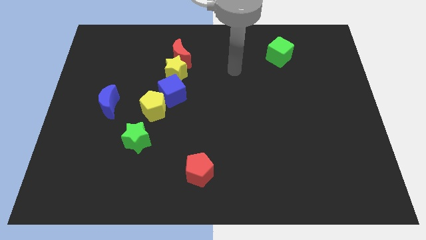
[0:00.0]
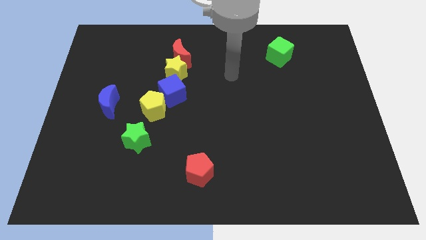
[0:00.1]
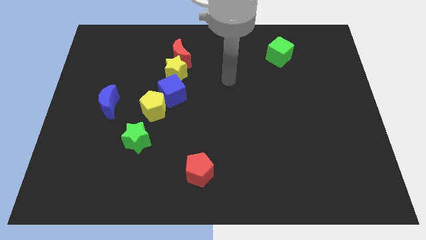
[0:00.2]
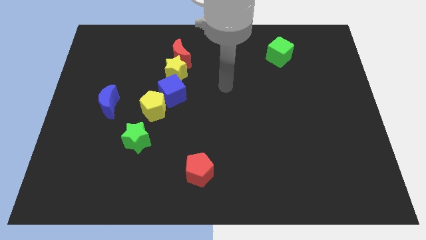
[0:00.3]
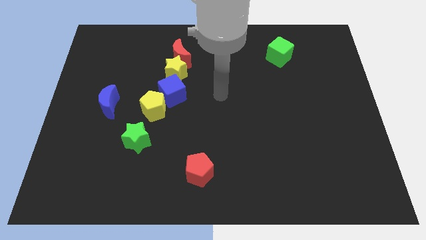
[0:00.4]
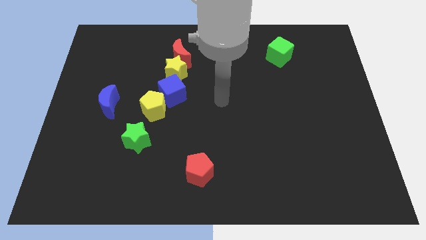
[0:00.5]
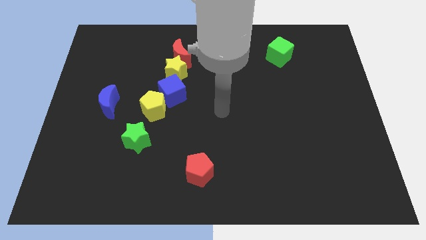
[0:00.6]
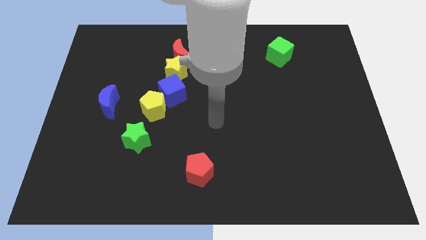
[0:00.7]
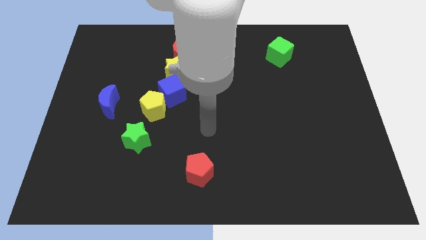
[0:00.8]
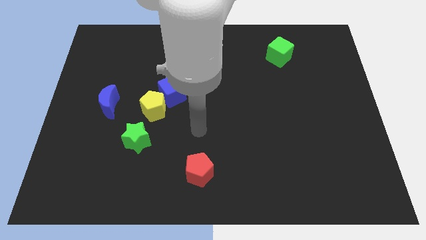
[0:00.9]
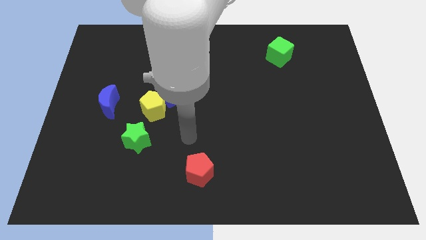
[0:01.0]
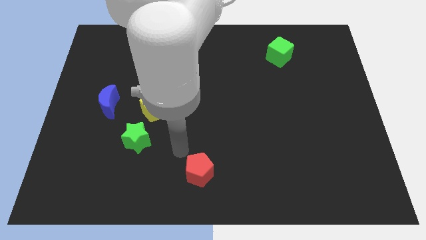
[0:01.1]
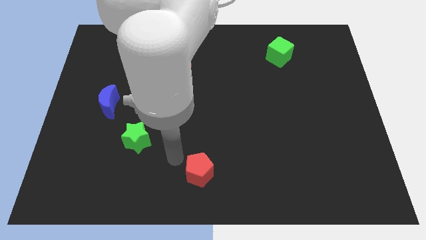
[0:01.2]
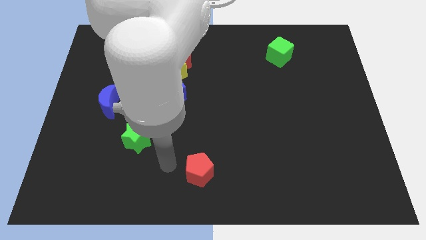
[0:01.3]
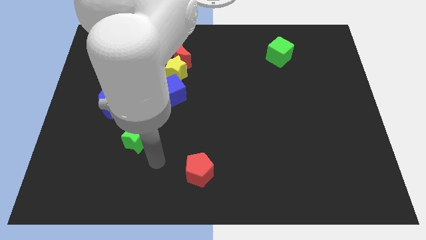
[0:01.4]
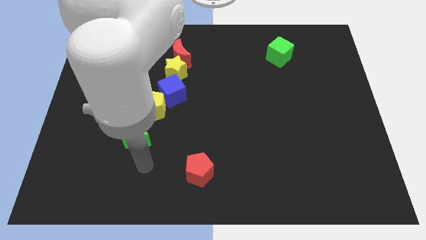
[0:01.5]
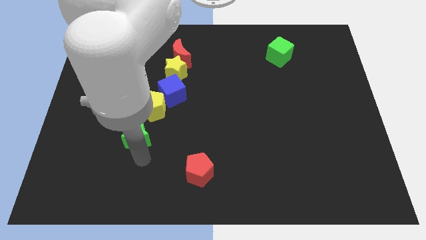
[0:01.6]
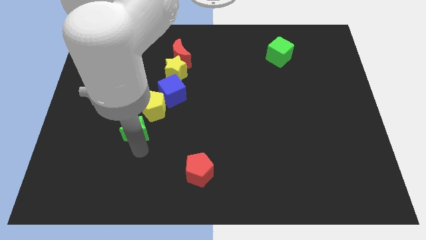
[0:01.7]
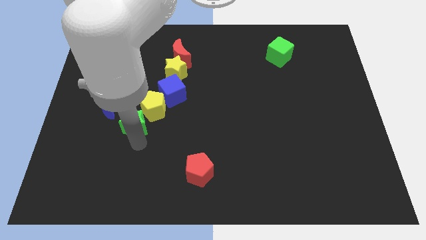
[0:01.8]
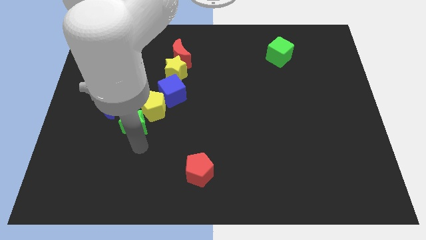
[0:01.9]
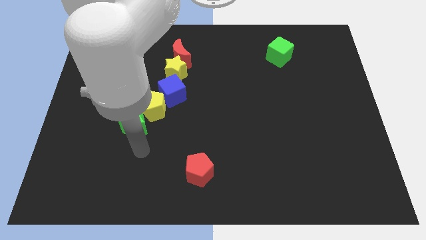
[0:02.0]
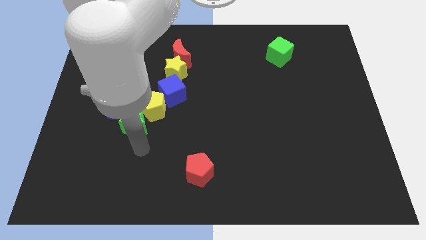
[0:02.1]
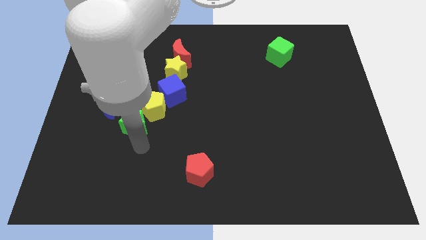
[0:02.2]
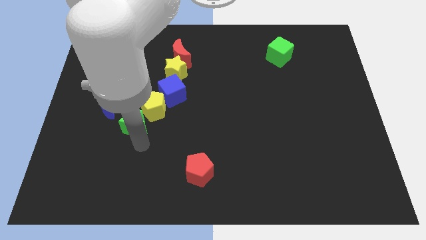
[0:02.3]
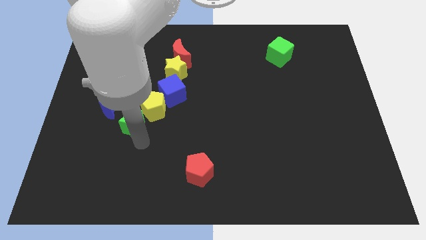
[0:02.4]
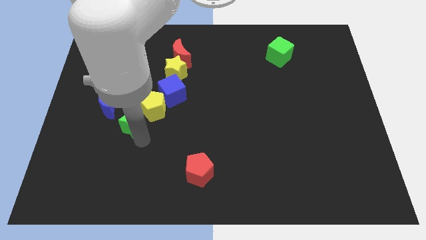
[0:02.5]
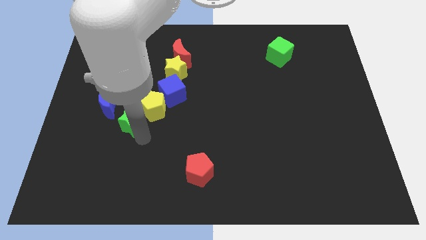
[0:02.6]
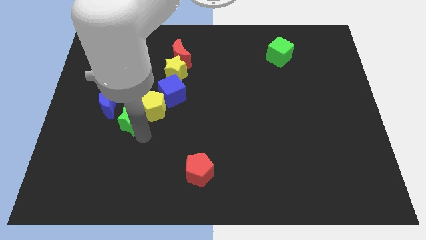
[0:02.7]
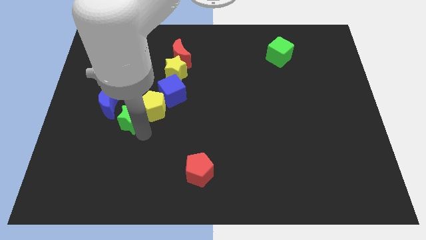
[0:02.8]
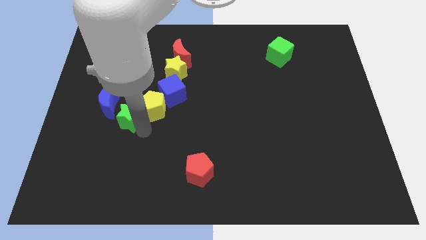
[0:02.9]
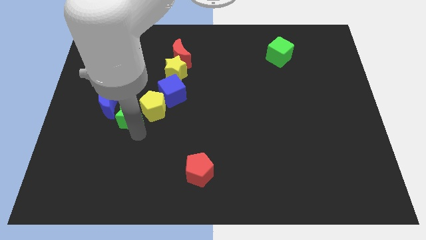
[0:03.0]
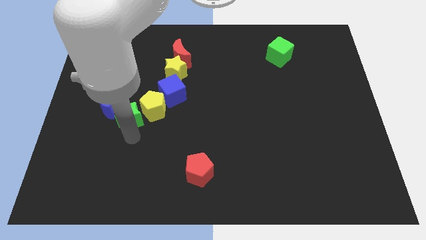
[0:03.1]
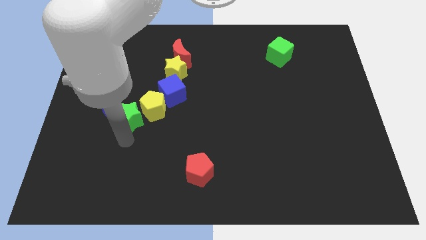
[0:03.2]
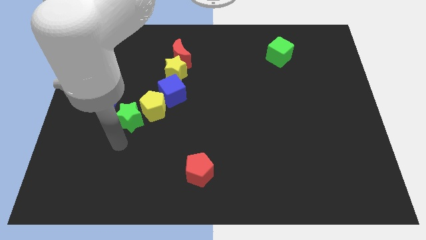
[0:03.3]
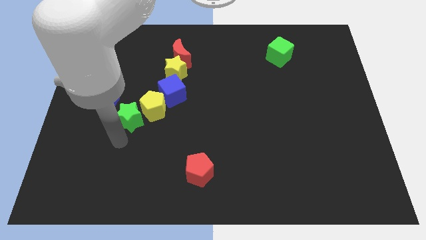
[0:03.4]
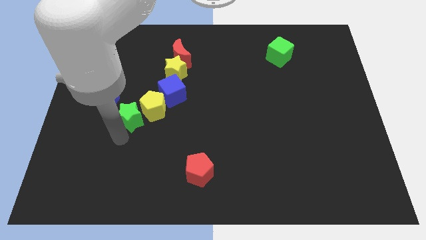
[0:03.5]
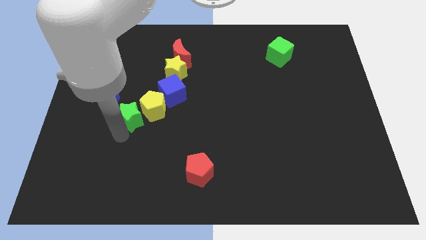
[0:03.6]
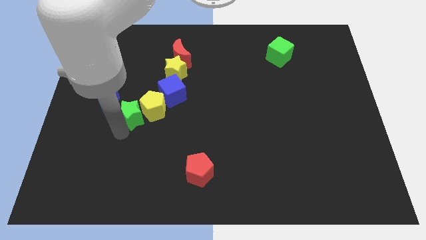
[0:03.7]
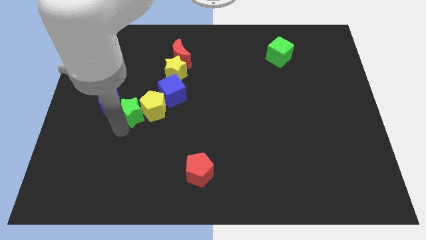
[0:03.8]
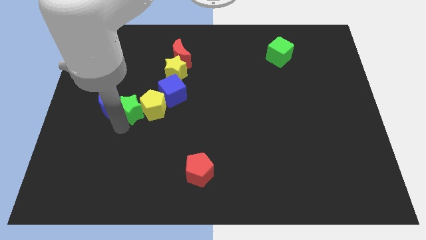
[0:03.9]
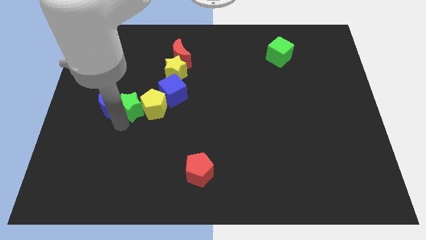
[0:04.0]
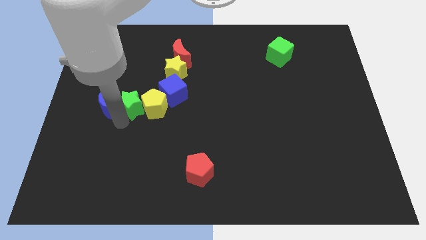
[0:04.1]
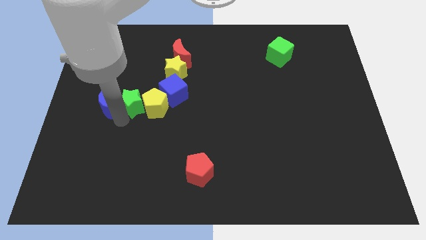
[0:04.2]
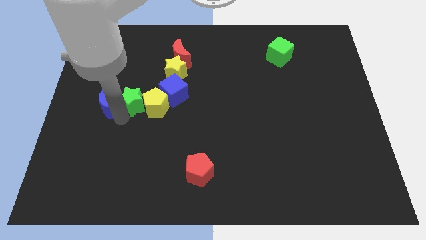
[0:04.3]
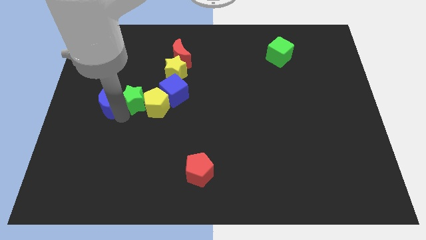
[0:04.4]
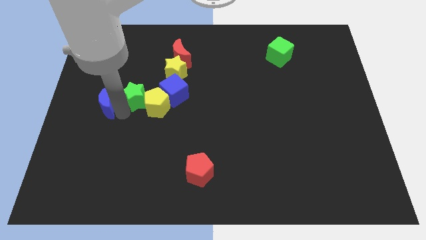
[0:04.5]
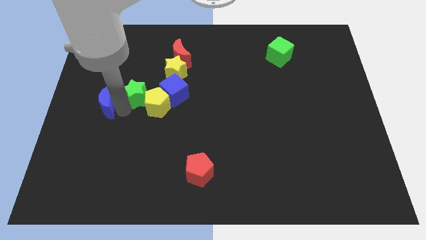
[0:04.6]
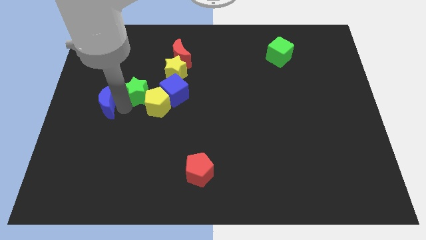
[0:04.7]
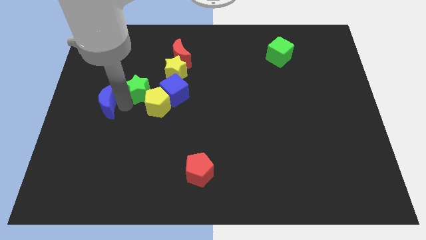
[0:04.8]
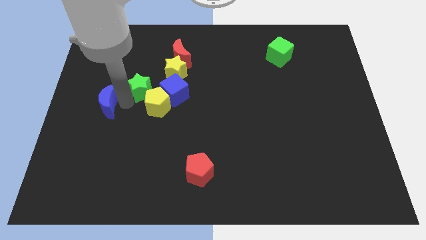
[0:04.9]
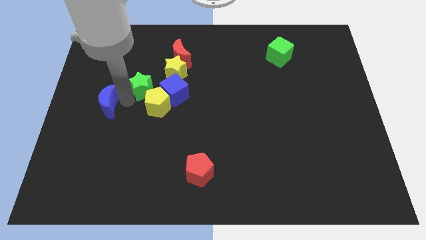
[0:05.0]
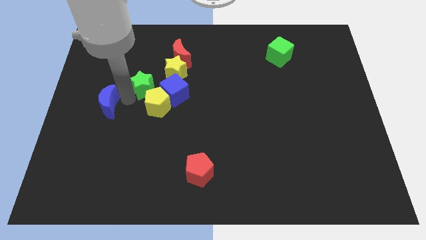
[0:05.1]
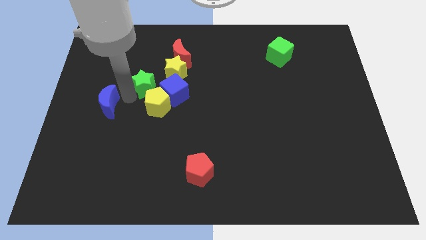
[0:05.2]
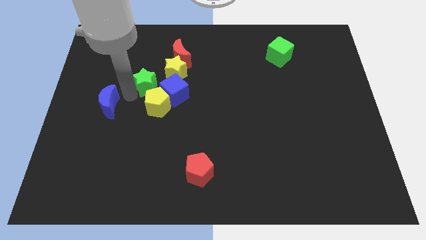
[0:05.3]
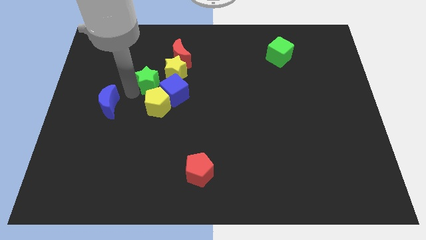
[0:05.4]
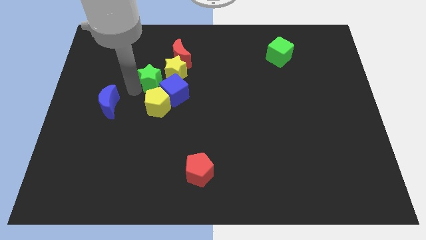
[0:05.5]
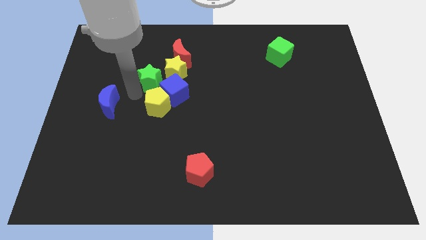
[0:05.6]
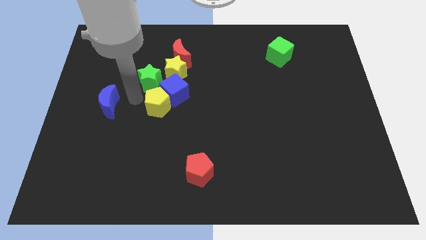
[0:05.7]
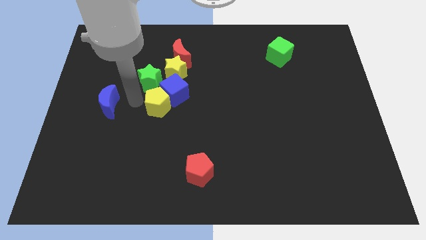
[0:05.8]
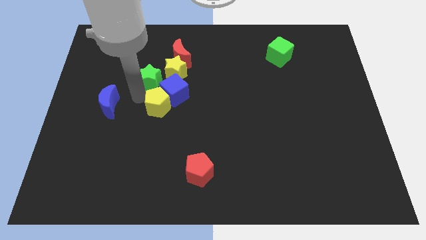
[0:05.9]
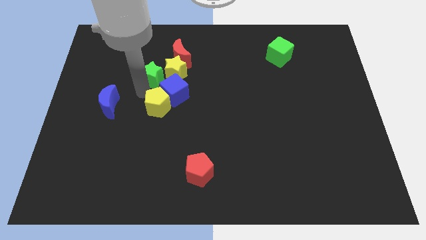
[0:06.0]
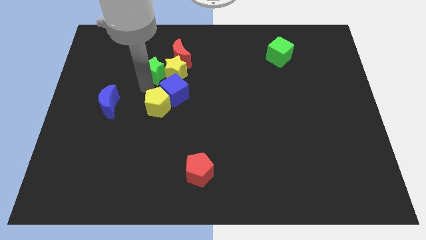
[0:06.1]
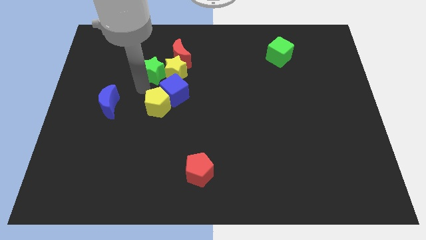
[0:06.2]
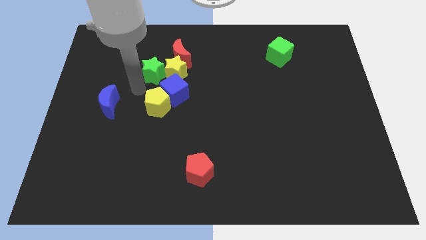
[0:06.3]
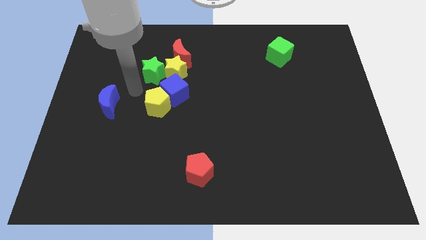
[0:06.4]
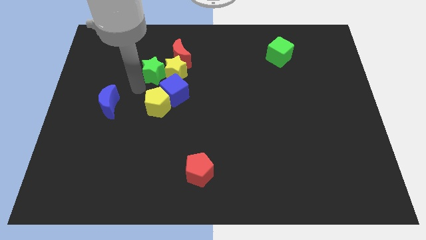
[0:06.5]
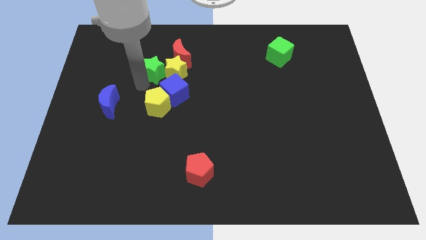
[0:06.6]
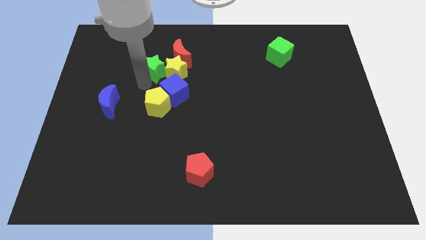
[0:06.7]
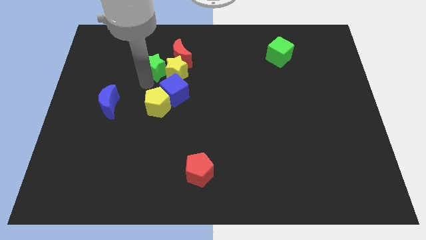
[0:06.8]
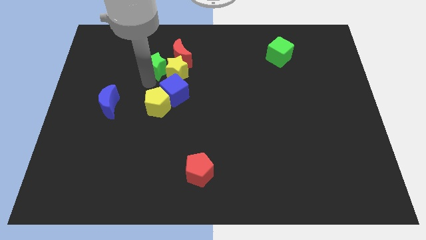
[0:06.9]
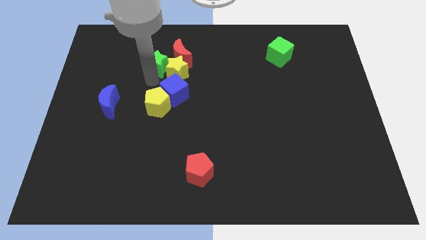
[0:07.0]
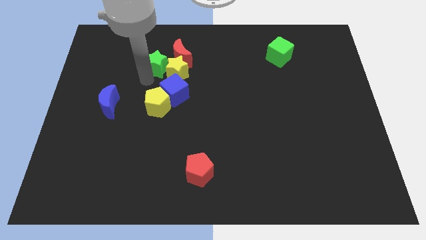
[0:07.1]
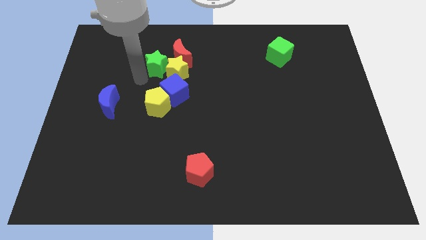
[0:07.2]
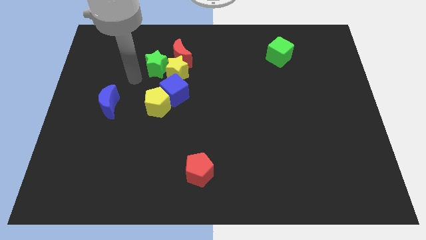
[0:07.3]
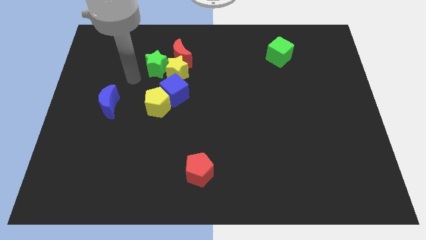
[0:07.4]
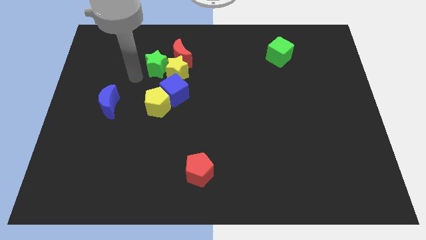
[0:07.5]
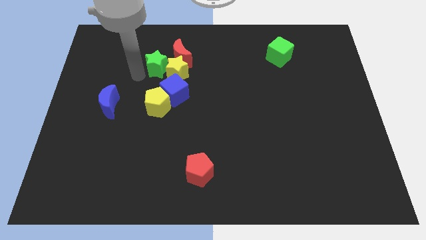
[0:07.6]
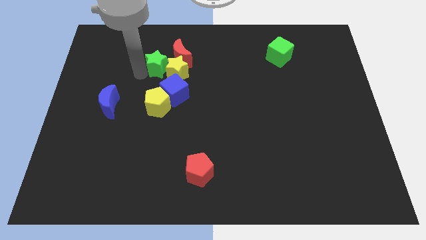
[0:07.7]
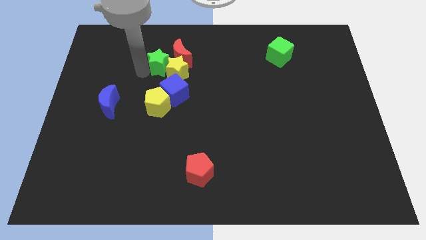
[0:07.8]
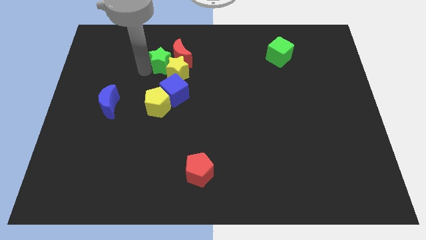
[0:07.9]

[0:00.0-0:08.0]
move the green star to the red moon
